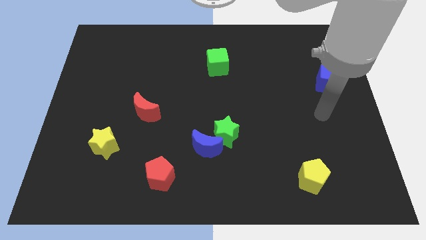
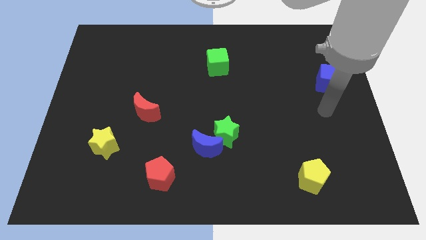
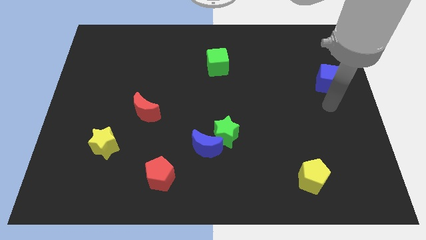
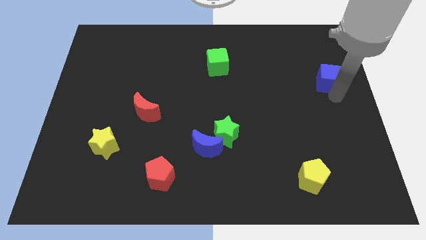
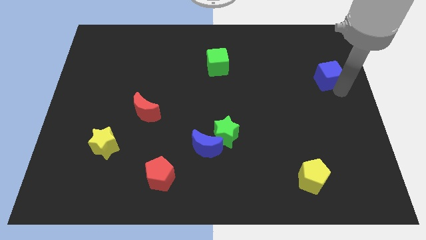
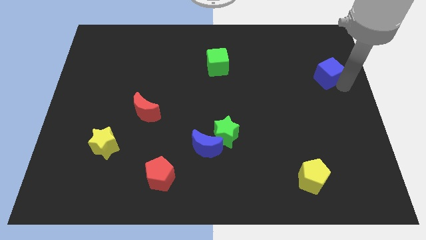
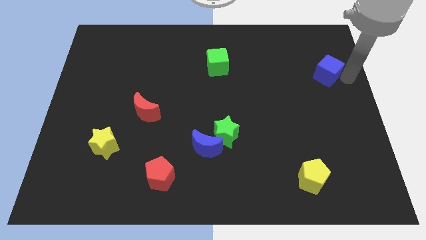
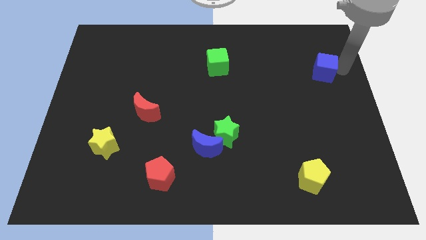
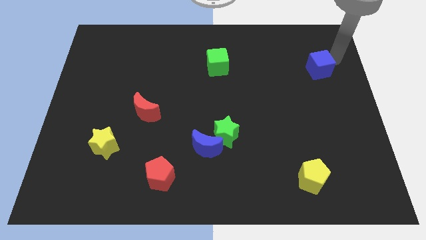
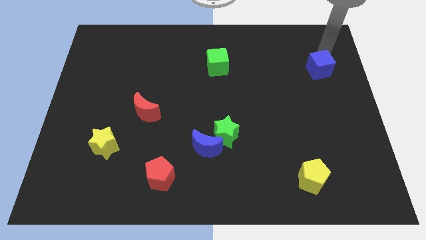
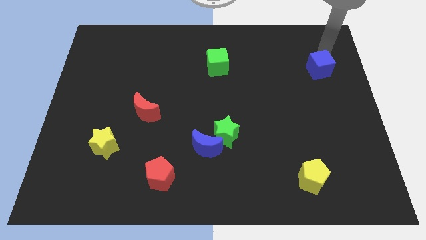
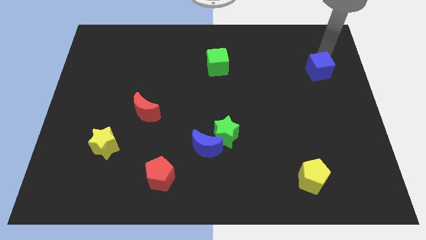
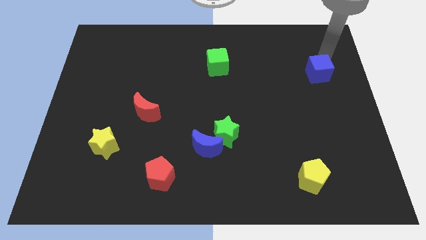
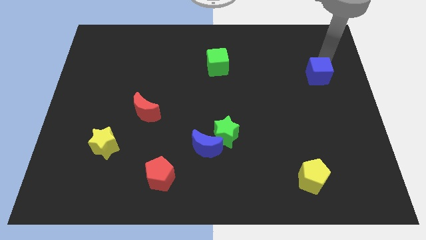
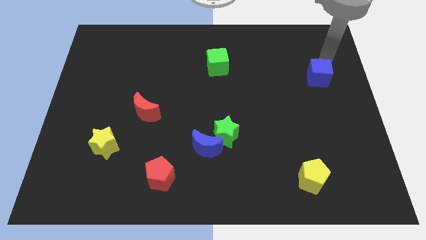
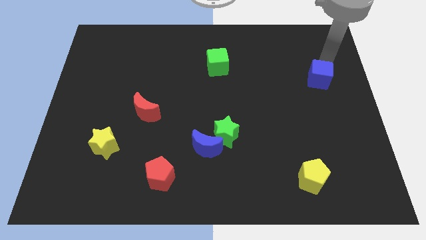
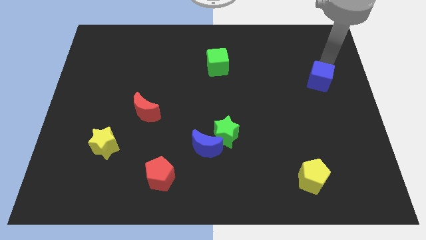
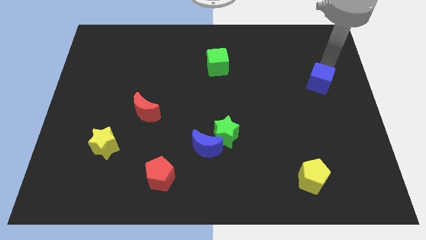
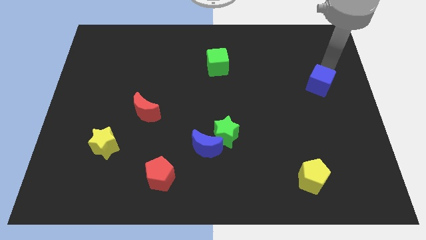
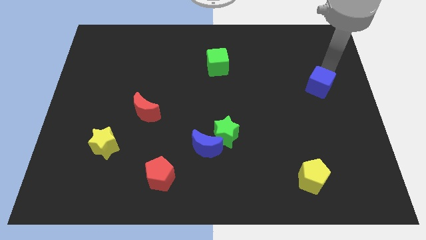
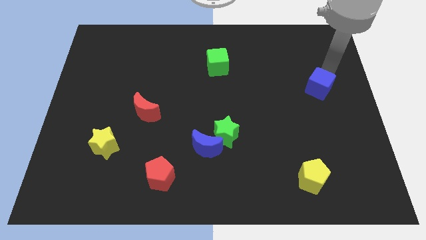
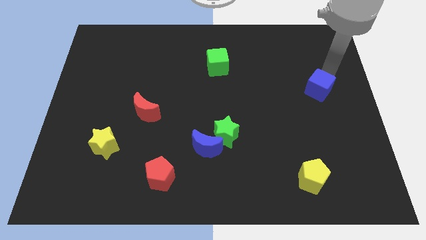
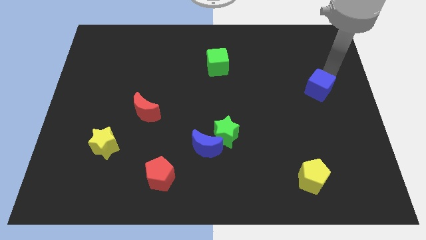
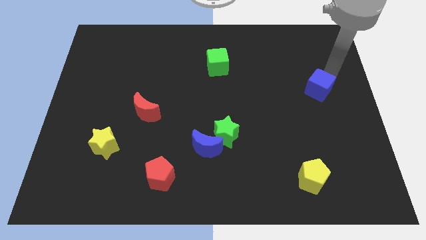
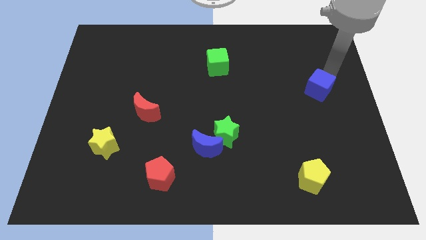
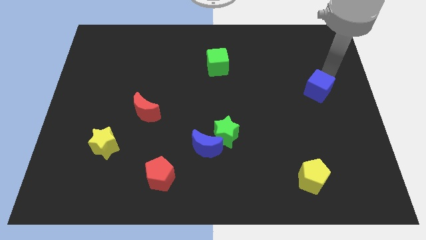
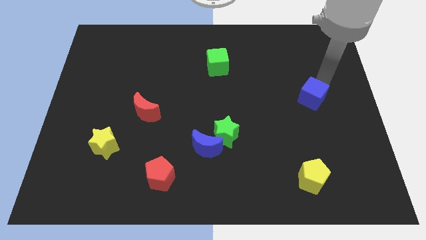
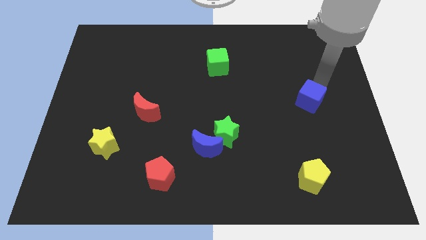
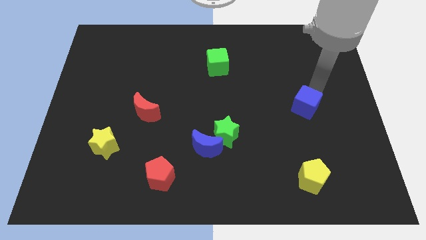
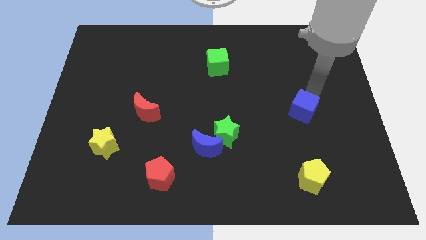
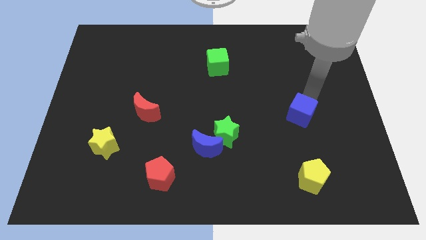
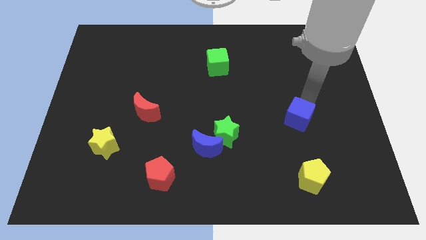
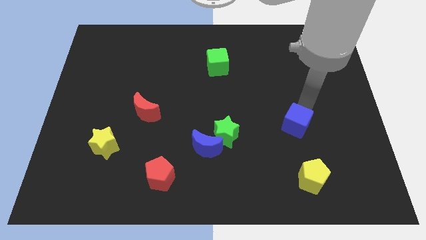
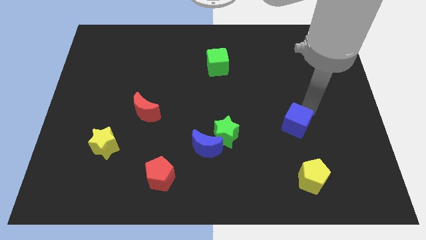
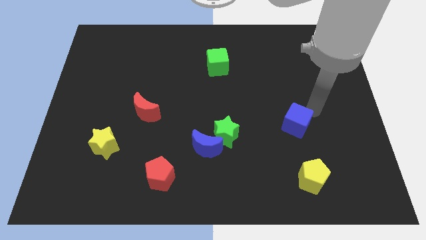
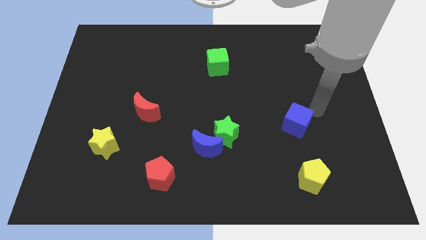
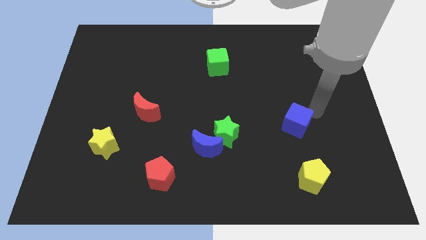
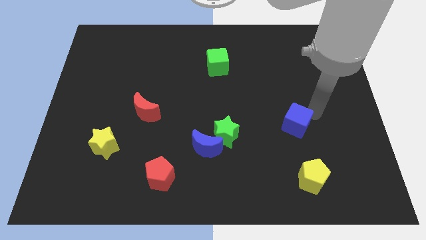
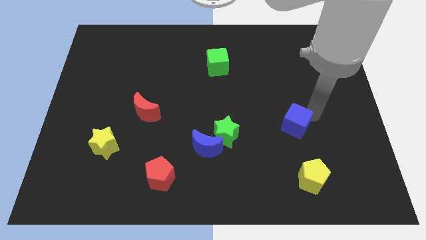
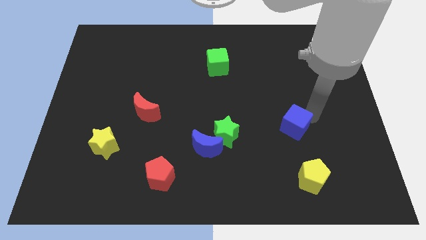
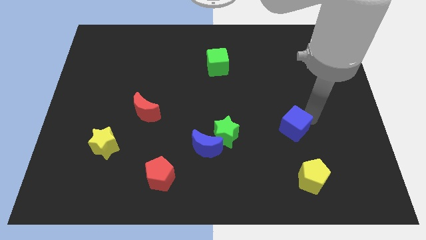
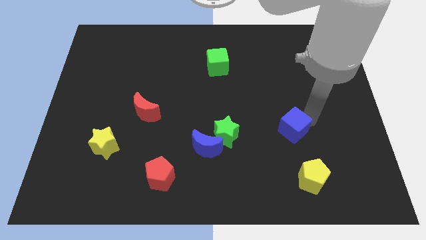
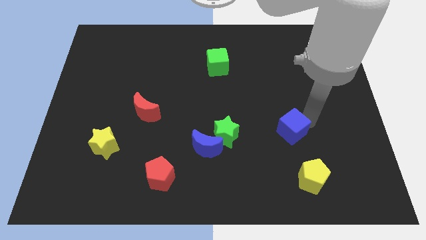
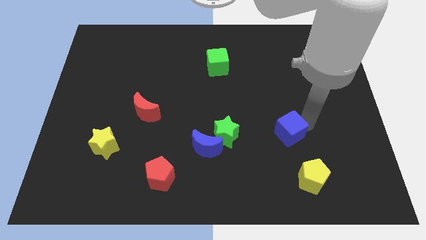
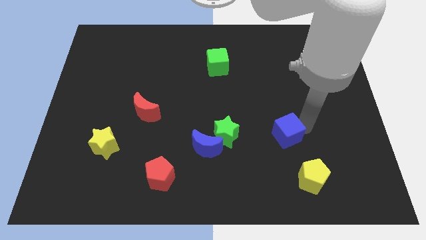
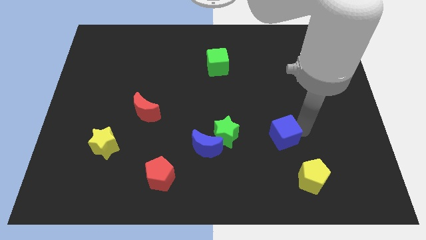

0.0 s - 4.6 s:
push the blue cube diagonally down and left

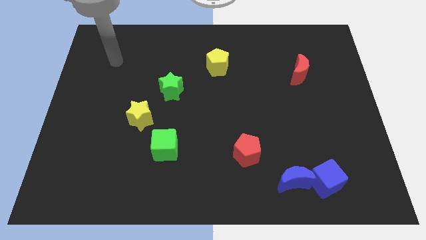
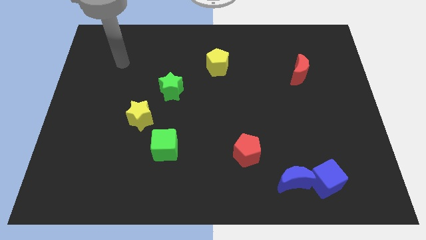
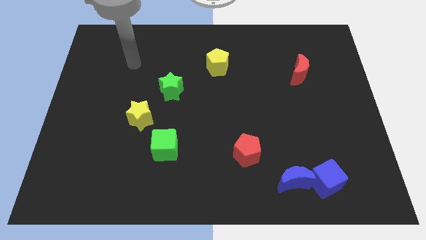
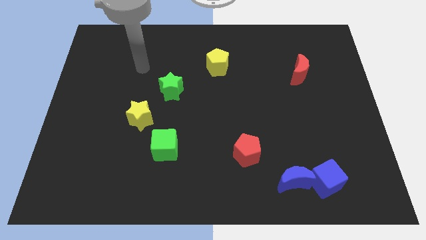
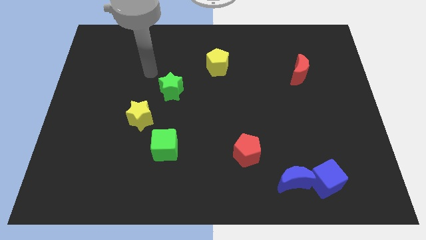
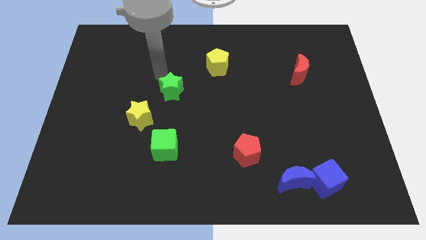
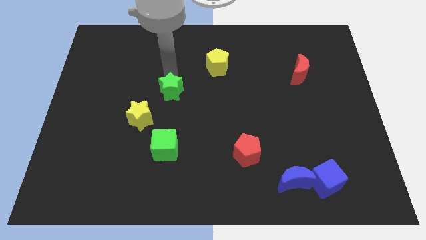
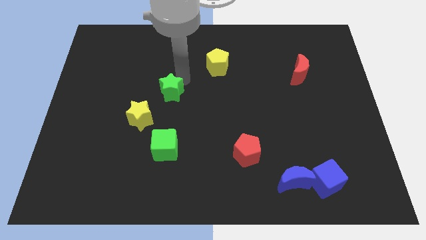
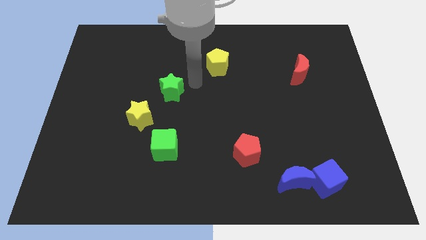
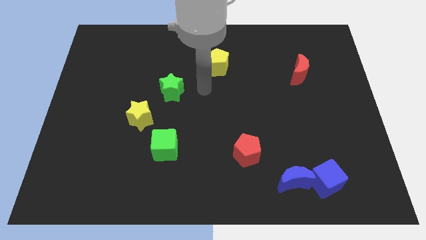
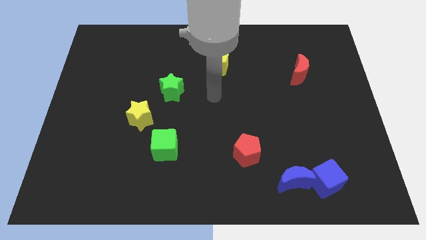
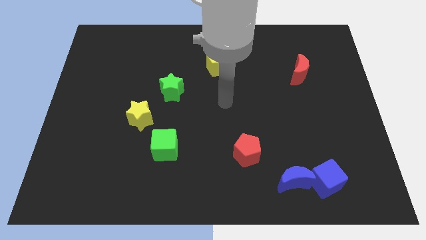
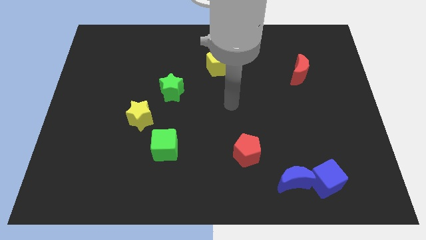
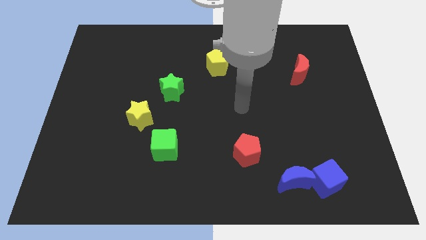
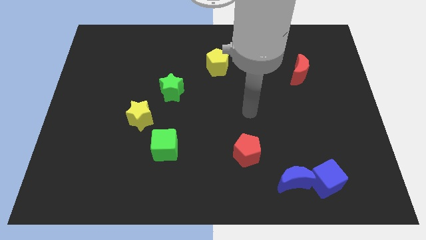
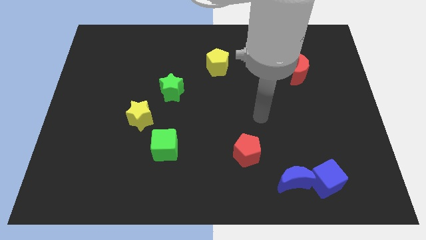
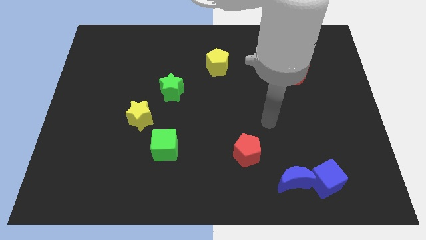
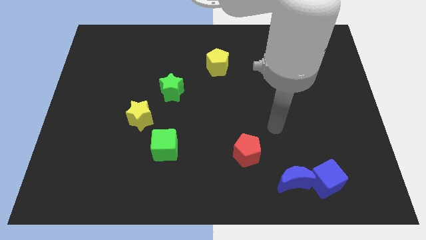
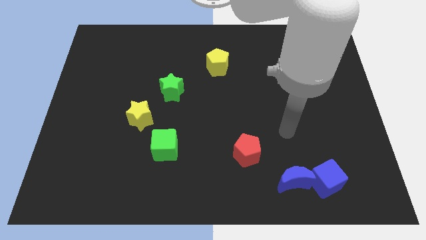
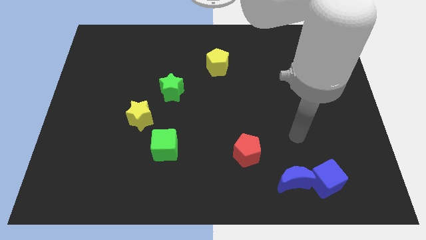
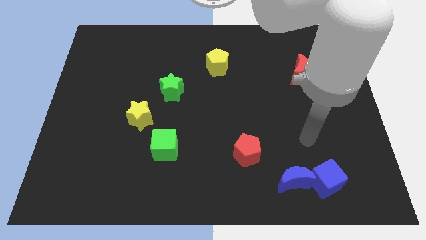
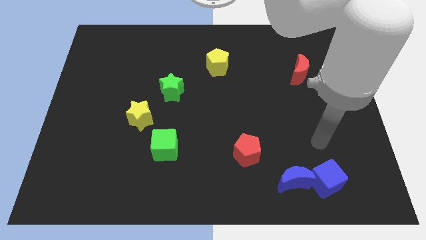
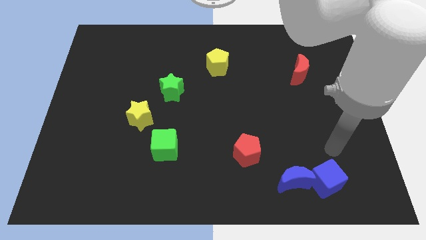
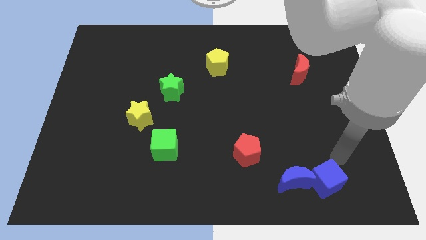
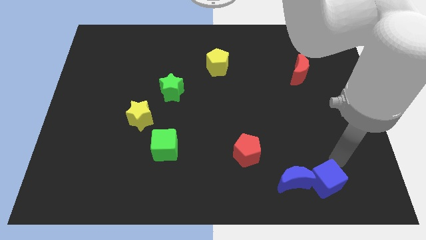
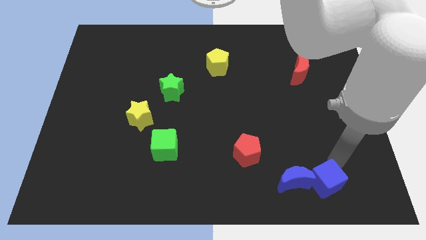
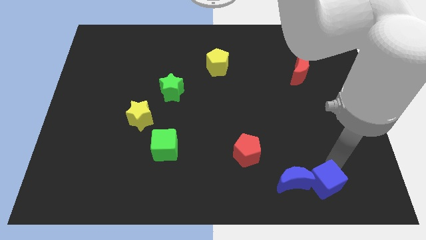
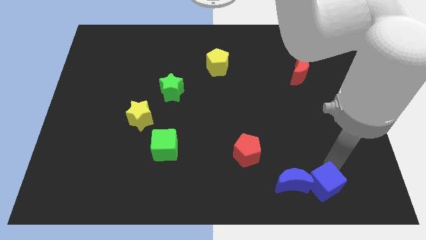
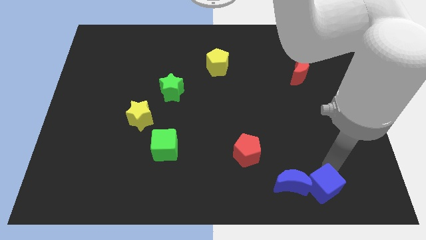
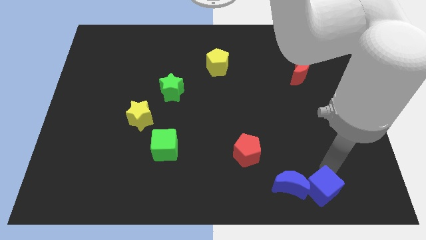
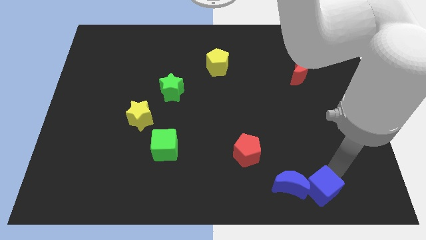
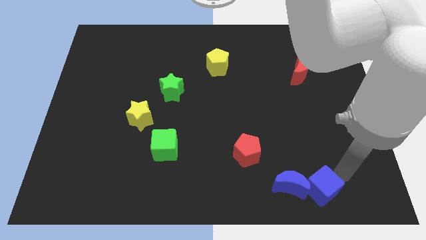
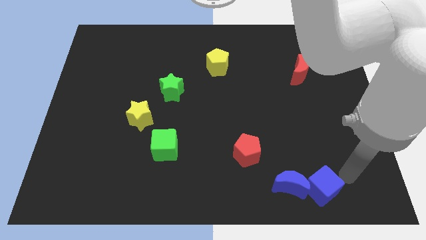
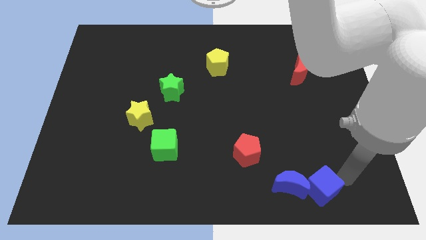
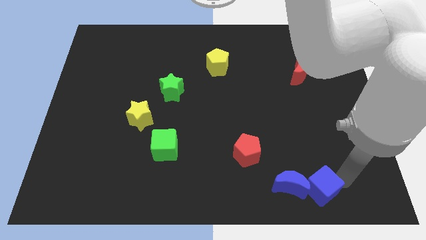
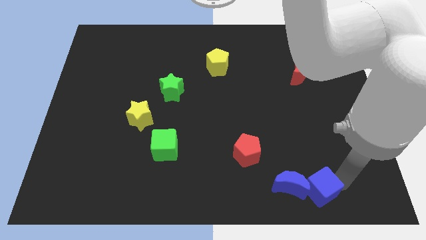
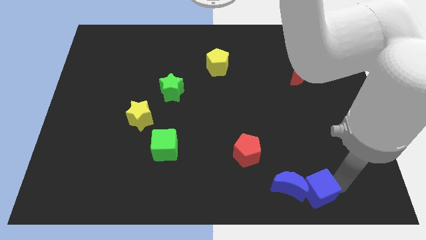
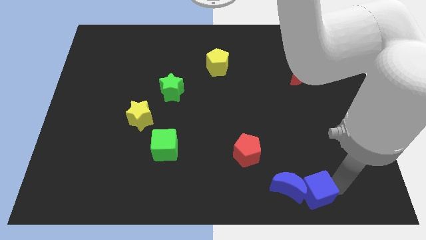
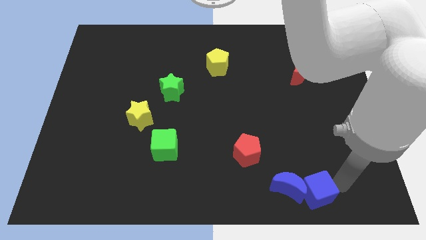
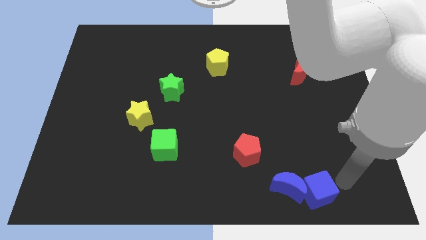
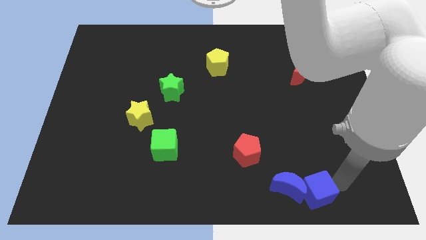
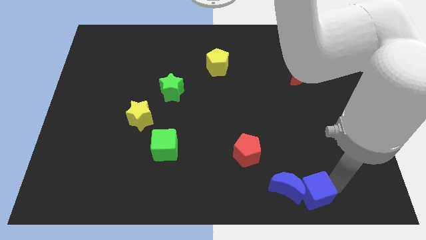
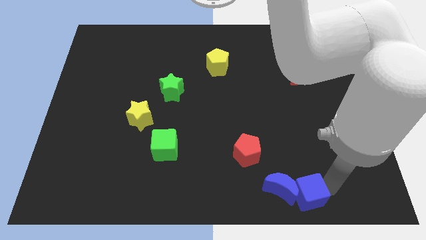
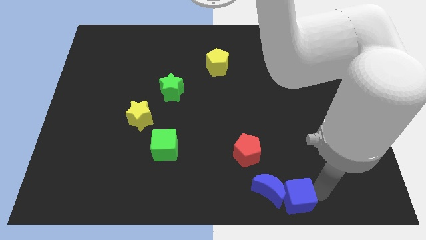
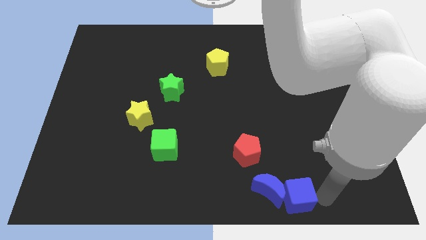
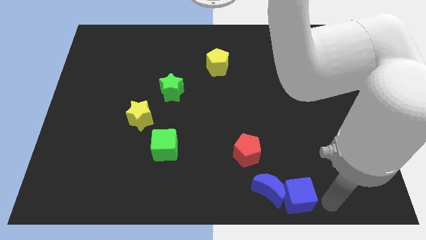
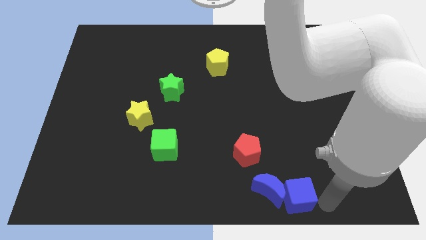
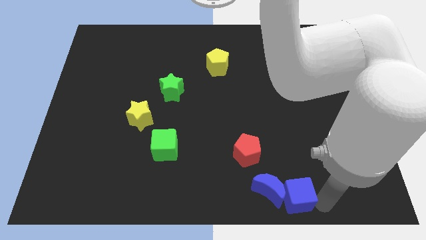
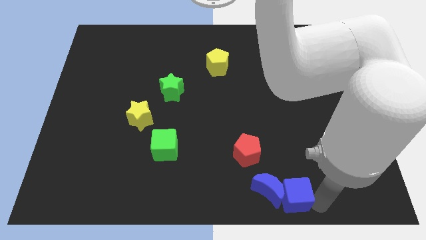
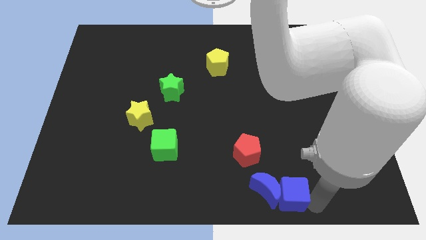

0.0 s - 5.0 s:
slide the blue cube left a little
